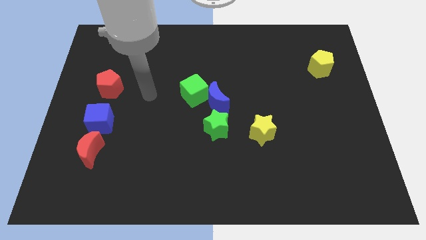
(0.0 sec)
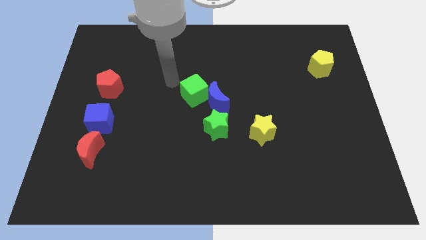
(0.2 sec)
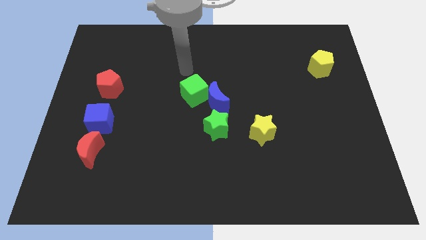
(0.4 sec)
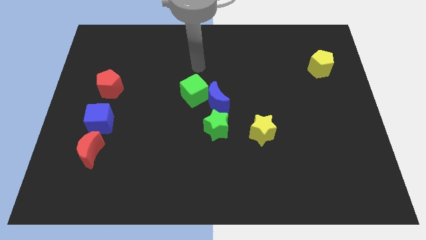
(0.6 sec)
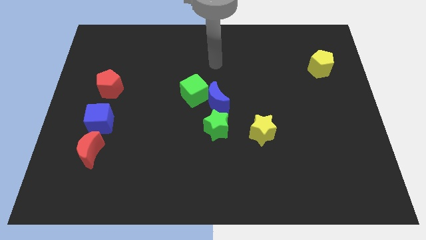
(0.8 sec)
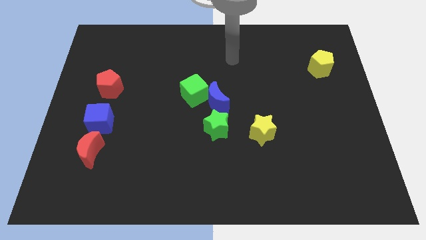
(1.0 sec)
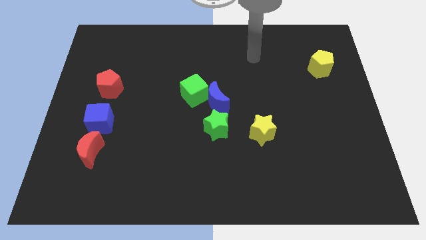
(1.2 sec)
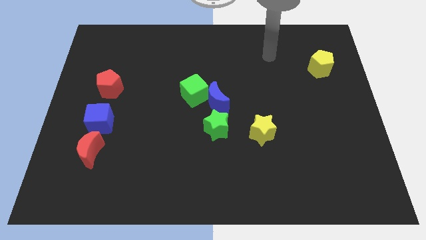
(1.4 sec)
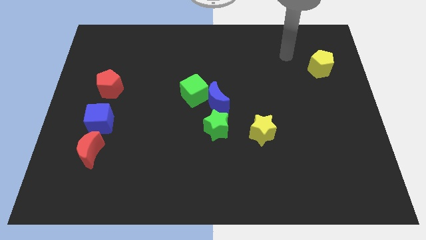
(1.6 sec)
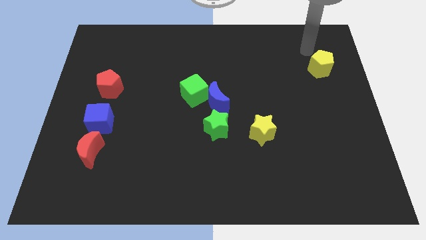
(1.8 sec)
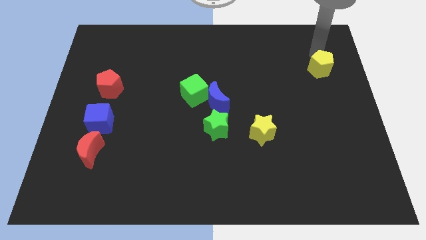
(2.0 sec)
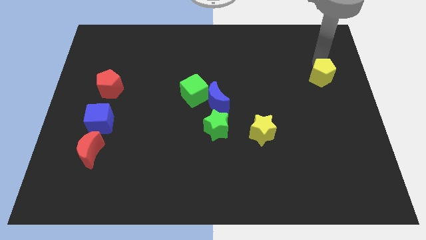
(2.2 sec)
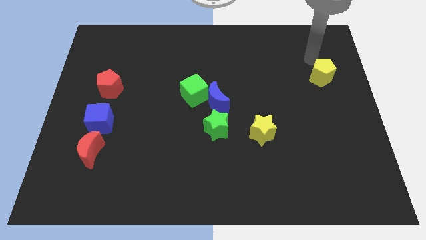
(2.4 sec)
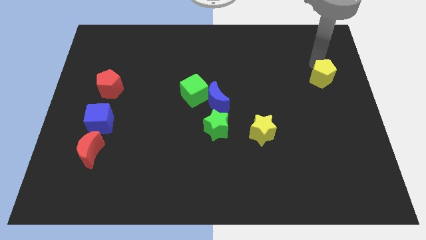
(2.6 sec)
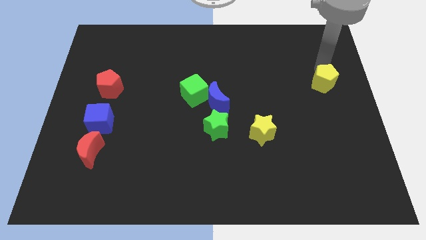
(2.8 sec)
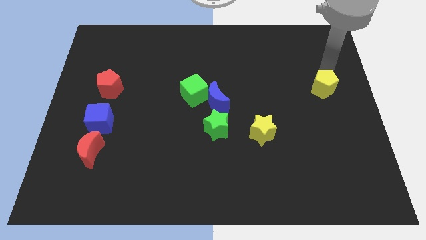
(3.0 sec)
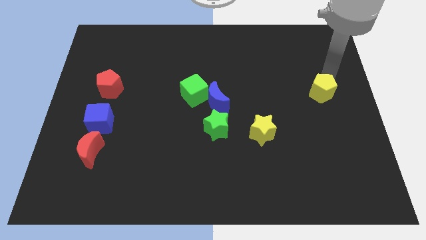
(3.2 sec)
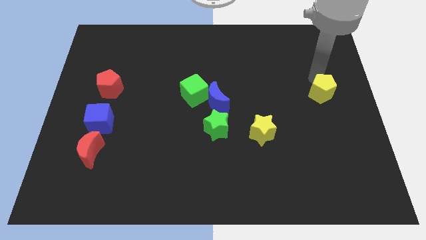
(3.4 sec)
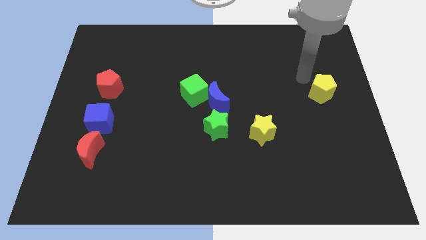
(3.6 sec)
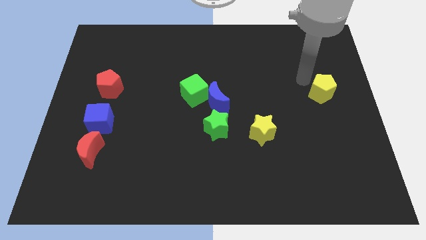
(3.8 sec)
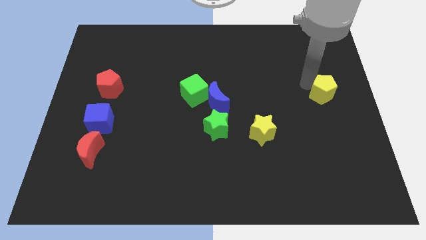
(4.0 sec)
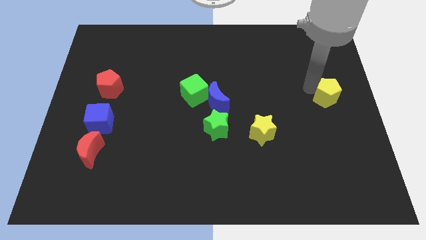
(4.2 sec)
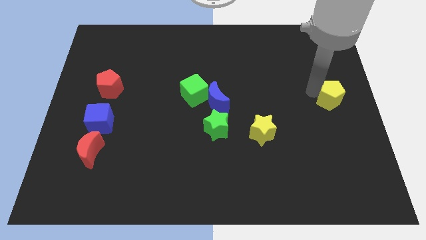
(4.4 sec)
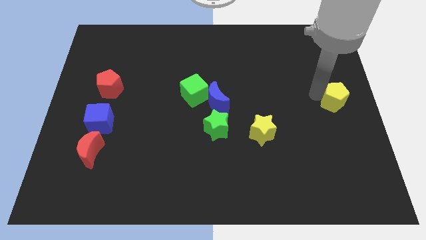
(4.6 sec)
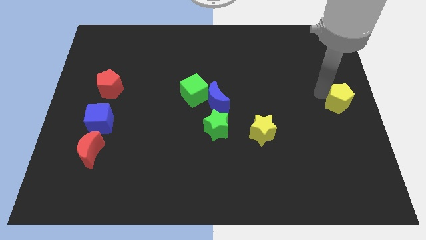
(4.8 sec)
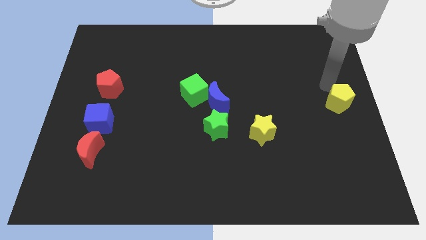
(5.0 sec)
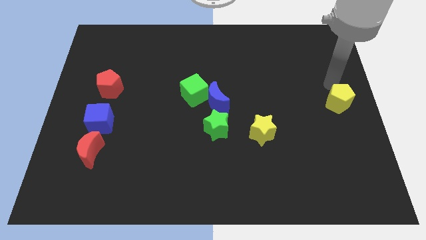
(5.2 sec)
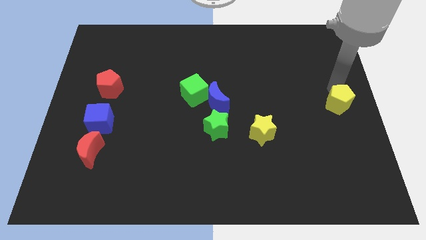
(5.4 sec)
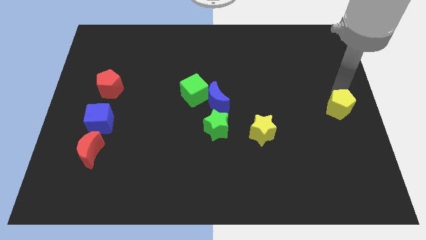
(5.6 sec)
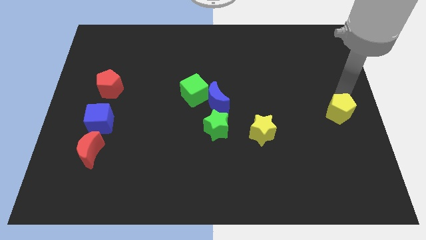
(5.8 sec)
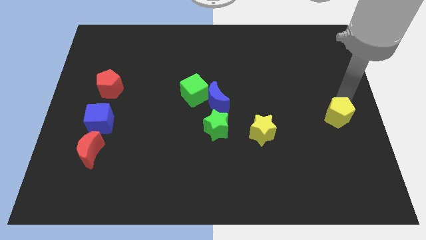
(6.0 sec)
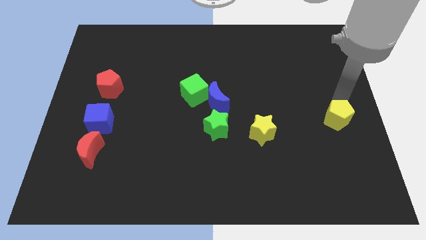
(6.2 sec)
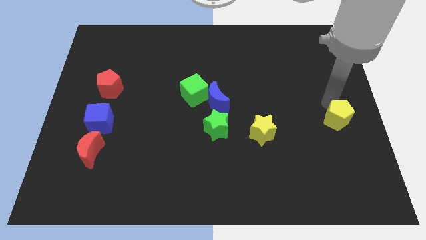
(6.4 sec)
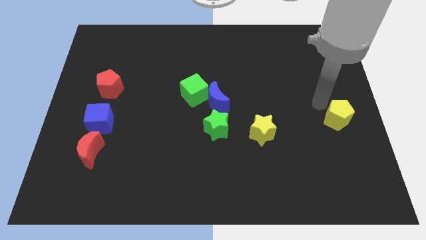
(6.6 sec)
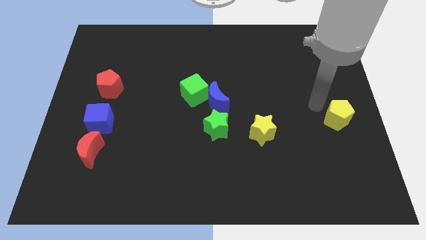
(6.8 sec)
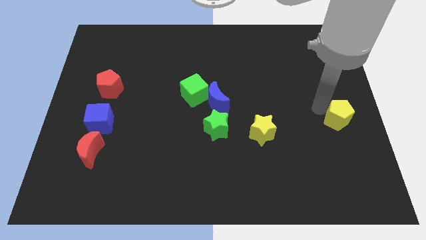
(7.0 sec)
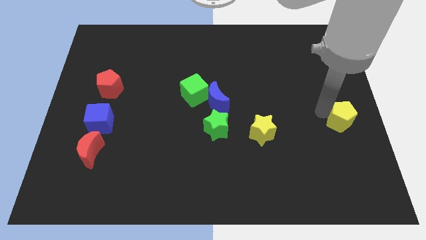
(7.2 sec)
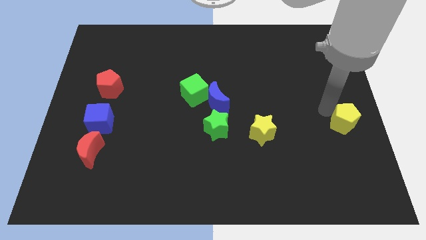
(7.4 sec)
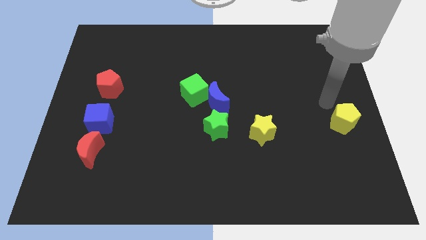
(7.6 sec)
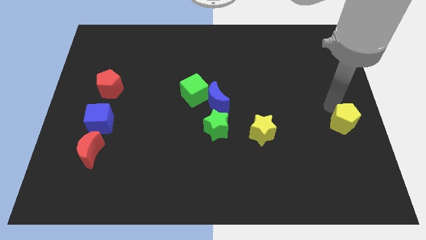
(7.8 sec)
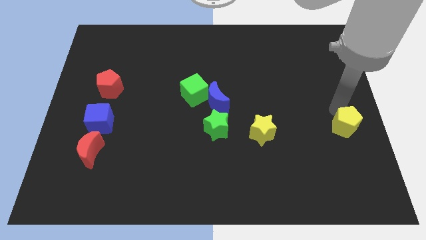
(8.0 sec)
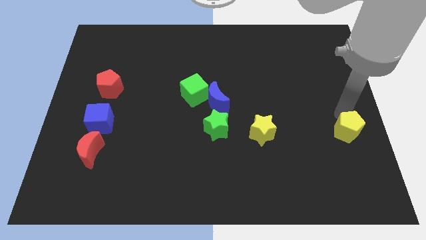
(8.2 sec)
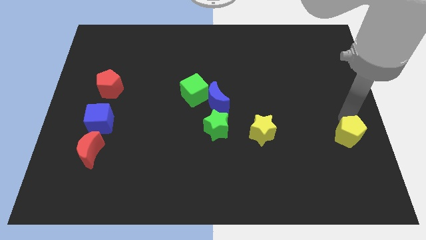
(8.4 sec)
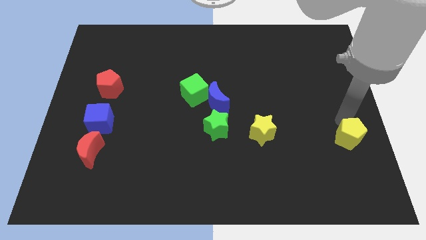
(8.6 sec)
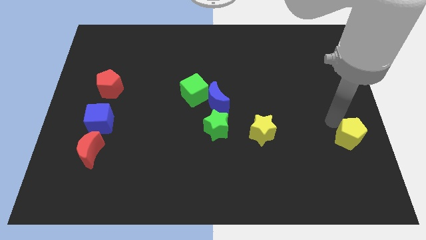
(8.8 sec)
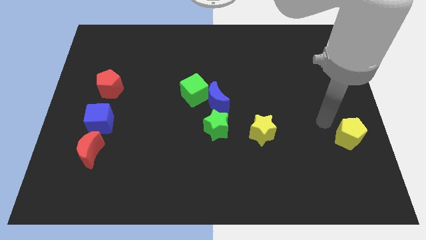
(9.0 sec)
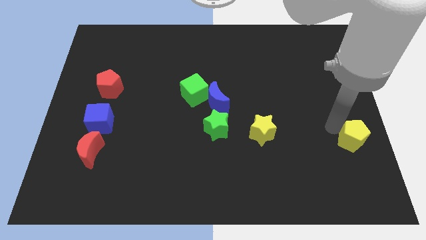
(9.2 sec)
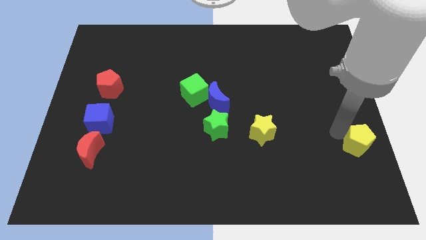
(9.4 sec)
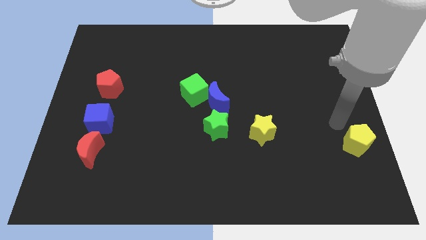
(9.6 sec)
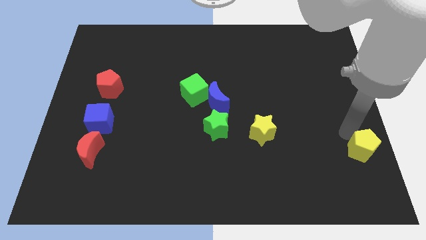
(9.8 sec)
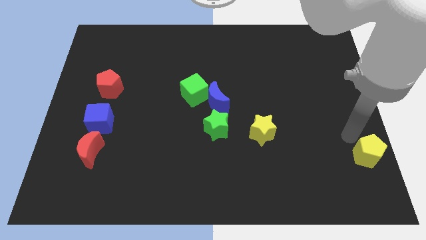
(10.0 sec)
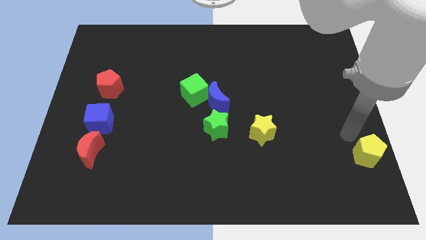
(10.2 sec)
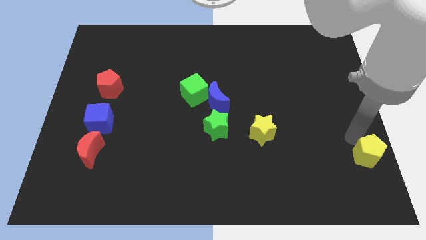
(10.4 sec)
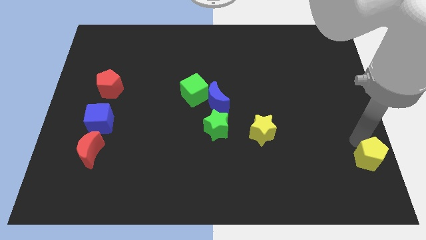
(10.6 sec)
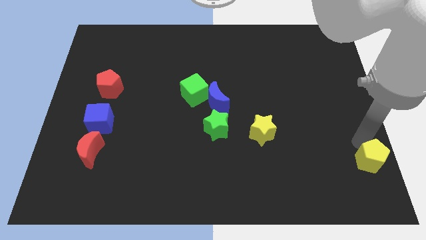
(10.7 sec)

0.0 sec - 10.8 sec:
move the yellow pentagon to the bottom right corner

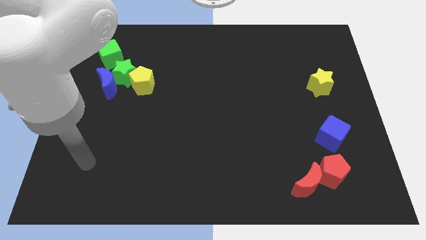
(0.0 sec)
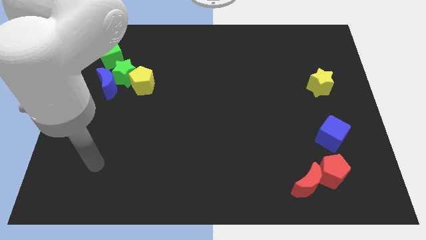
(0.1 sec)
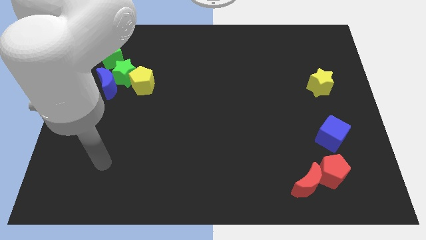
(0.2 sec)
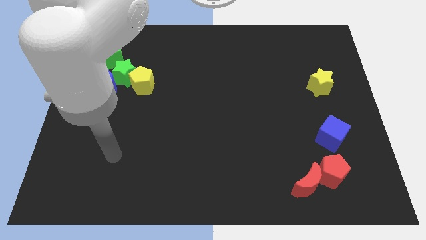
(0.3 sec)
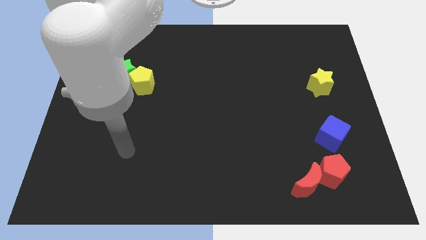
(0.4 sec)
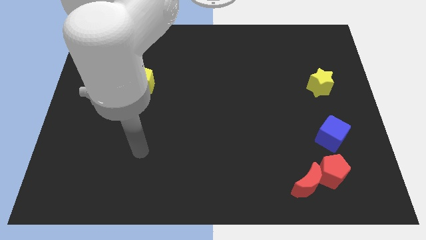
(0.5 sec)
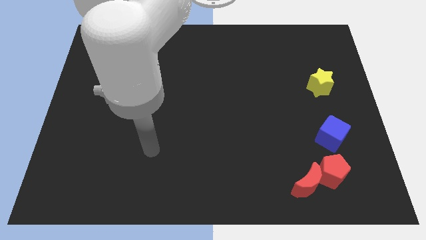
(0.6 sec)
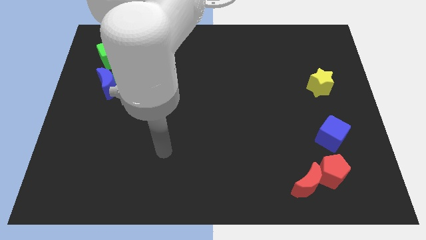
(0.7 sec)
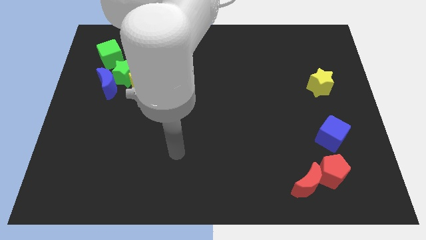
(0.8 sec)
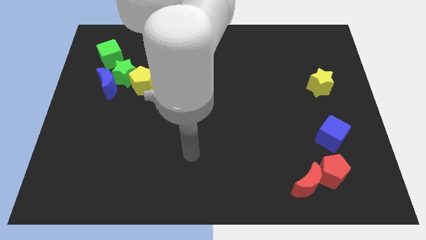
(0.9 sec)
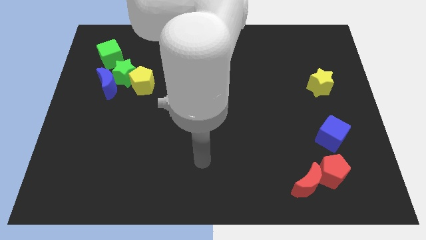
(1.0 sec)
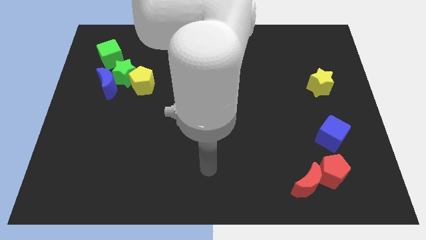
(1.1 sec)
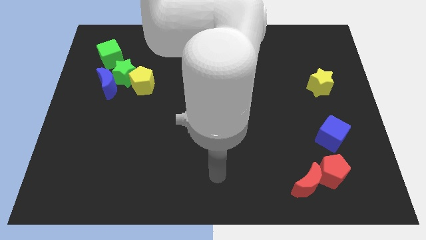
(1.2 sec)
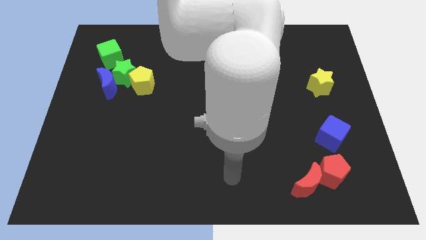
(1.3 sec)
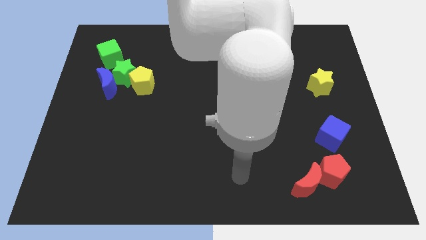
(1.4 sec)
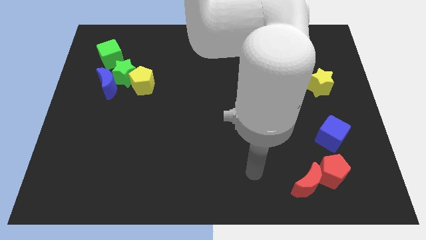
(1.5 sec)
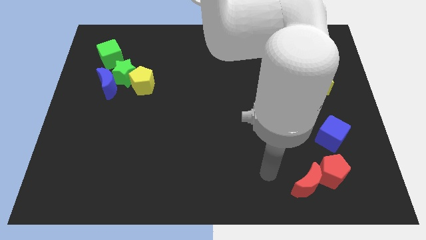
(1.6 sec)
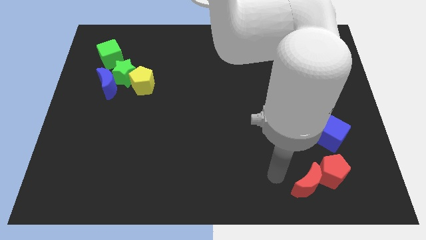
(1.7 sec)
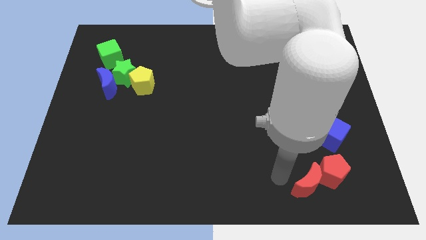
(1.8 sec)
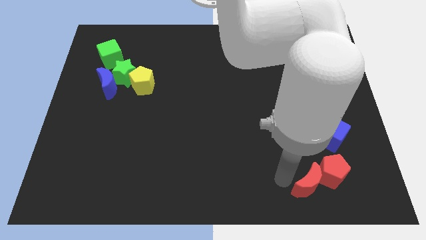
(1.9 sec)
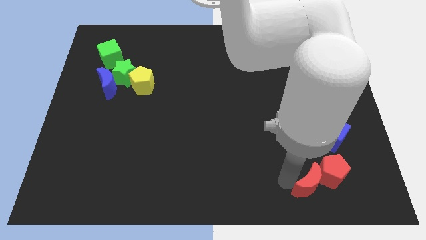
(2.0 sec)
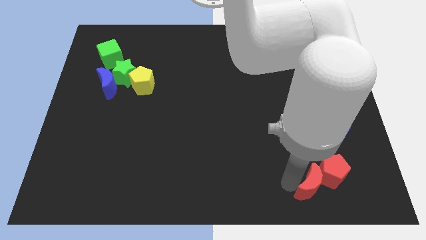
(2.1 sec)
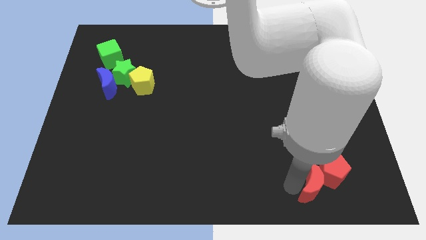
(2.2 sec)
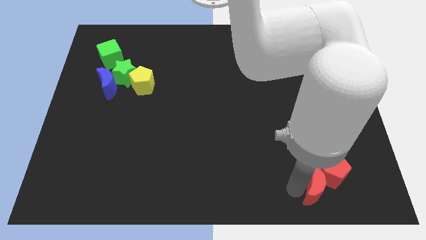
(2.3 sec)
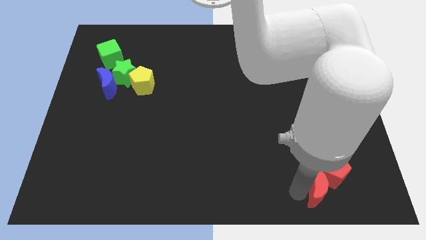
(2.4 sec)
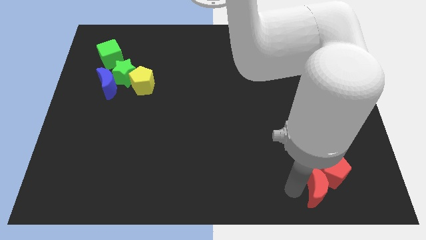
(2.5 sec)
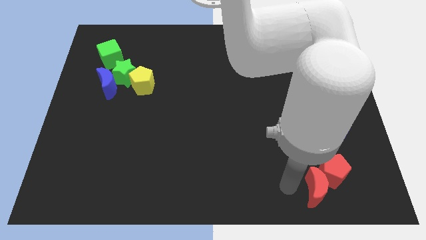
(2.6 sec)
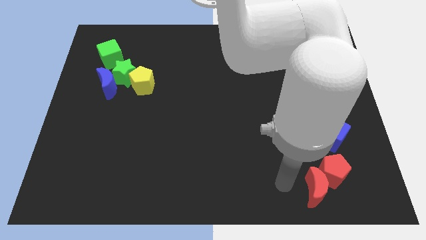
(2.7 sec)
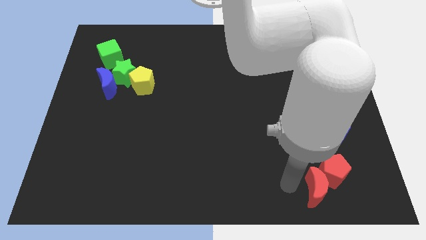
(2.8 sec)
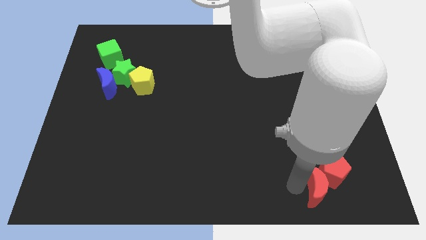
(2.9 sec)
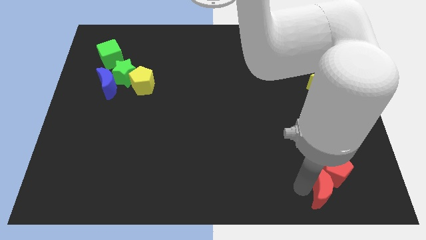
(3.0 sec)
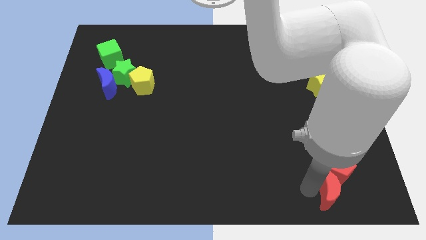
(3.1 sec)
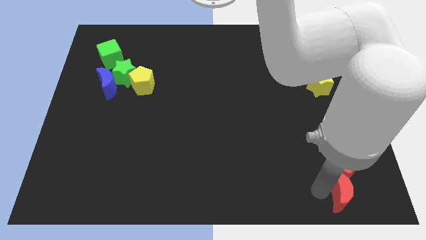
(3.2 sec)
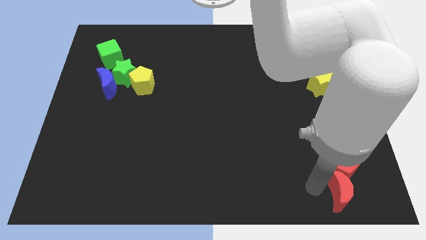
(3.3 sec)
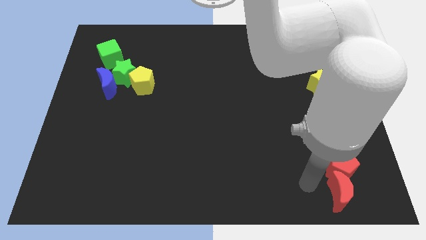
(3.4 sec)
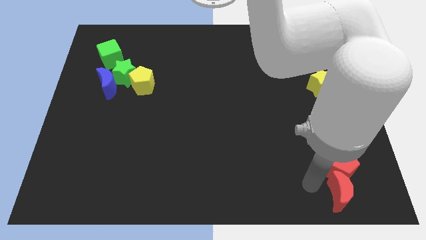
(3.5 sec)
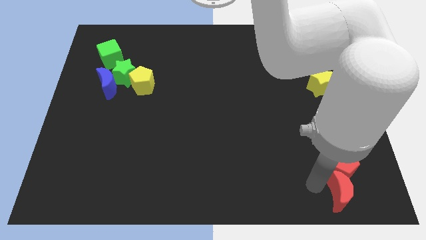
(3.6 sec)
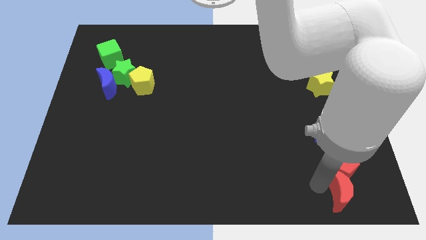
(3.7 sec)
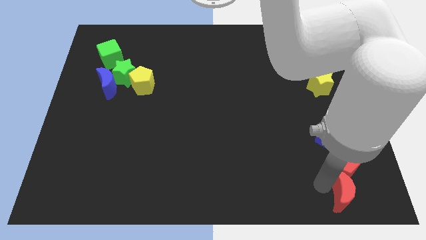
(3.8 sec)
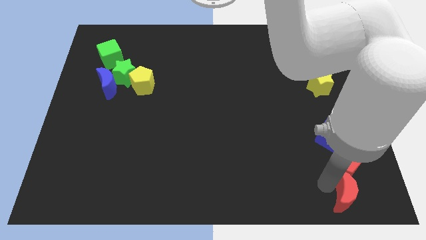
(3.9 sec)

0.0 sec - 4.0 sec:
move the red moon to the bottom right of the board
